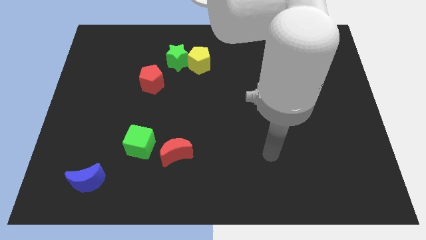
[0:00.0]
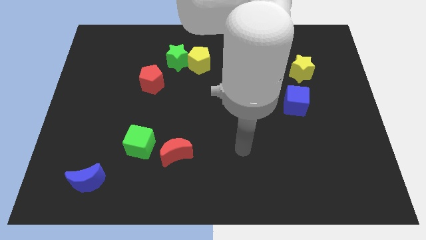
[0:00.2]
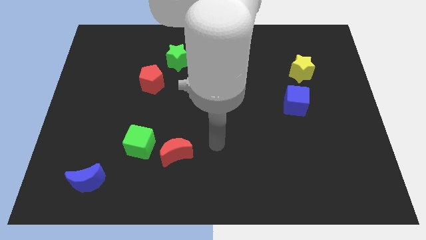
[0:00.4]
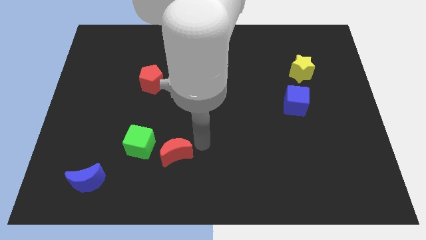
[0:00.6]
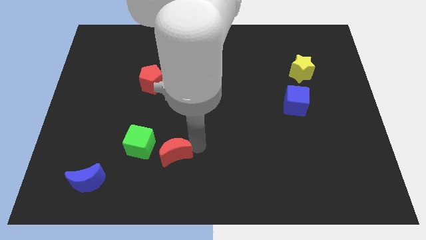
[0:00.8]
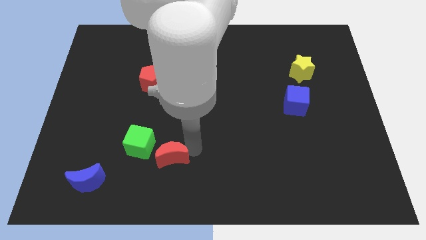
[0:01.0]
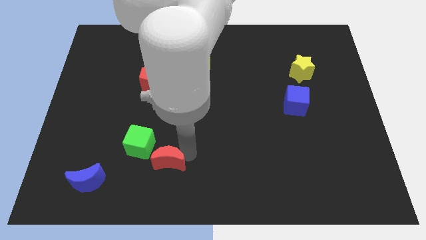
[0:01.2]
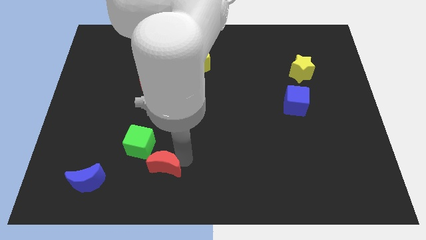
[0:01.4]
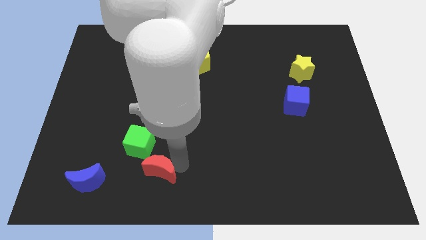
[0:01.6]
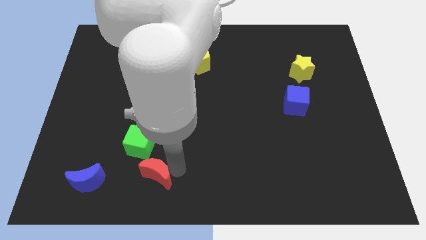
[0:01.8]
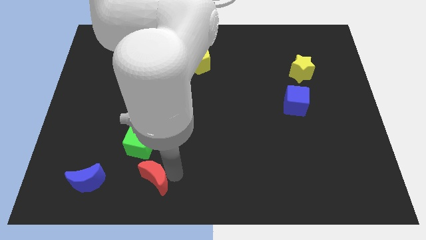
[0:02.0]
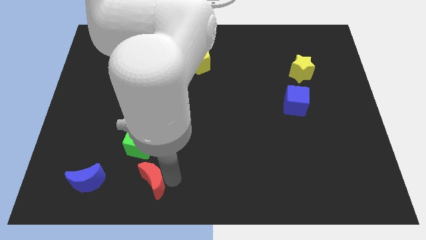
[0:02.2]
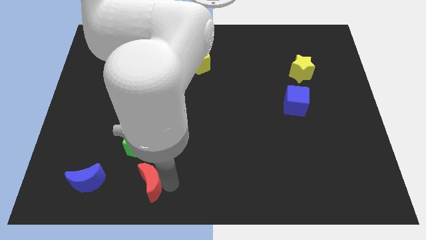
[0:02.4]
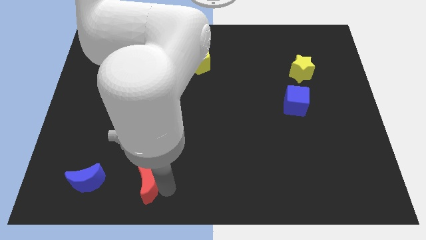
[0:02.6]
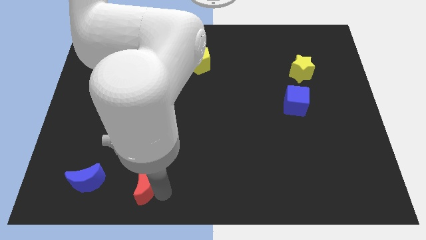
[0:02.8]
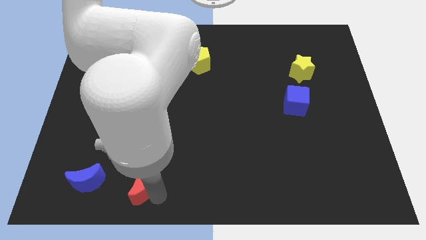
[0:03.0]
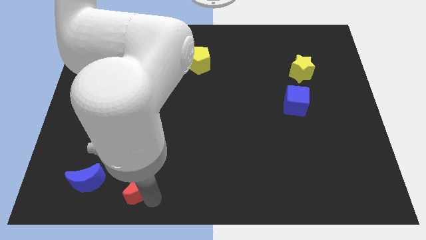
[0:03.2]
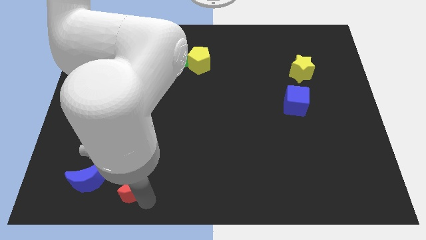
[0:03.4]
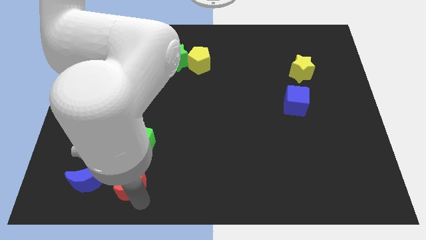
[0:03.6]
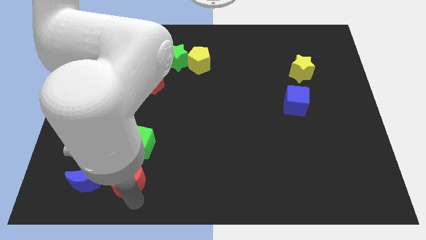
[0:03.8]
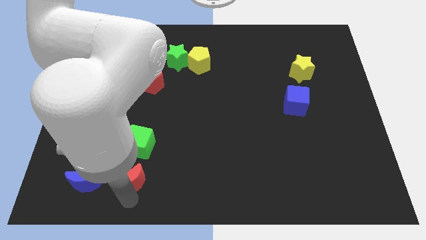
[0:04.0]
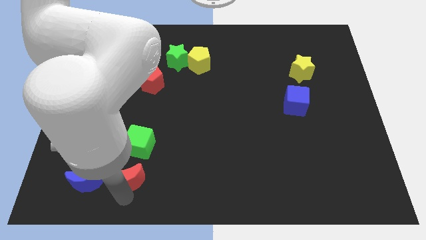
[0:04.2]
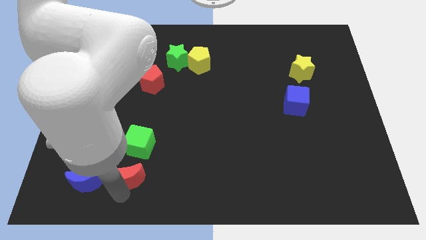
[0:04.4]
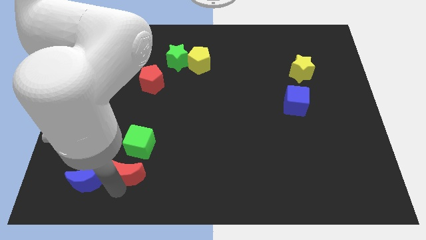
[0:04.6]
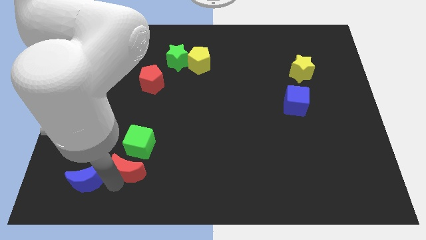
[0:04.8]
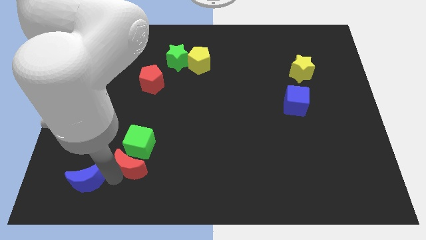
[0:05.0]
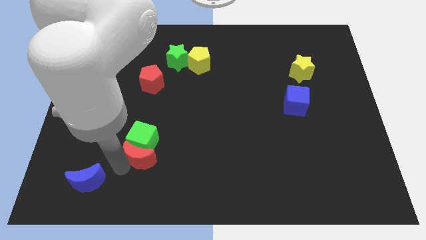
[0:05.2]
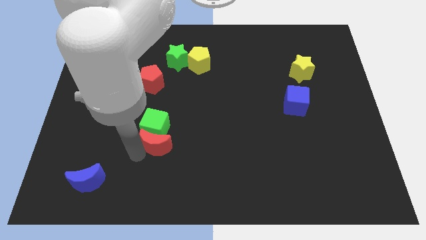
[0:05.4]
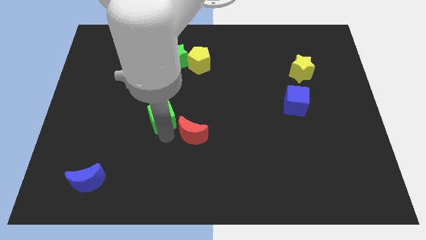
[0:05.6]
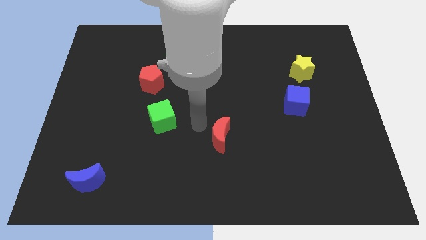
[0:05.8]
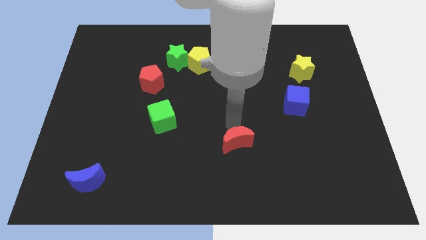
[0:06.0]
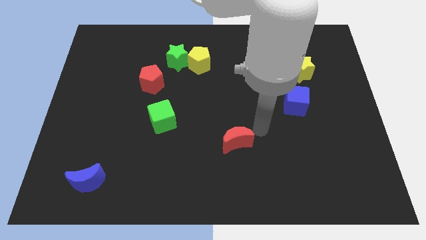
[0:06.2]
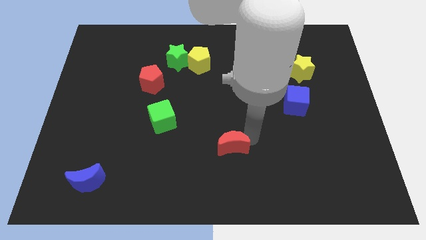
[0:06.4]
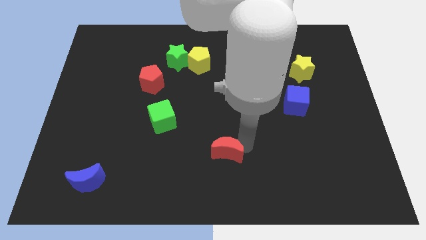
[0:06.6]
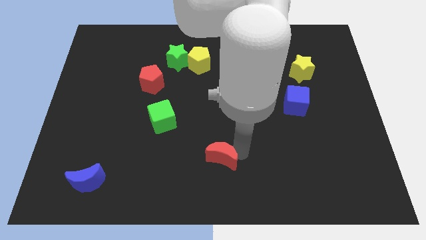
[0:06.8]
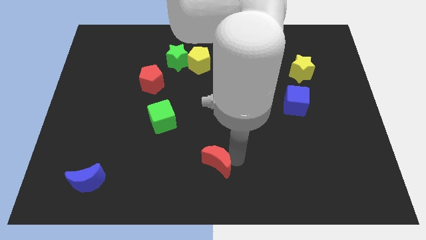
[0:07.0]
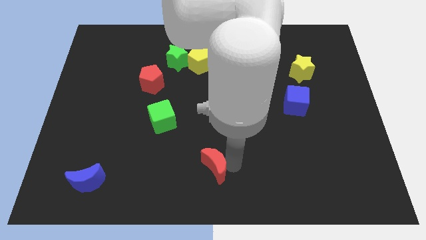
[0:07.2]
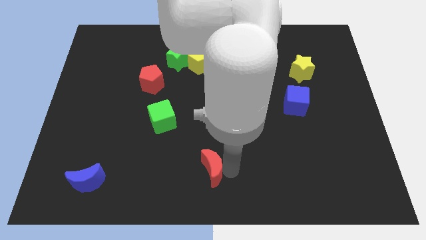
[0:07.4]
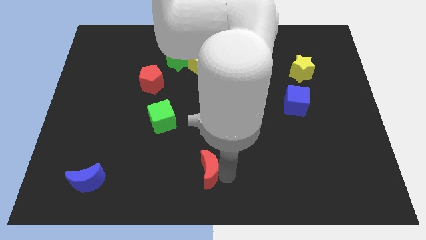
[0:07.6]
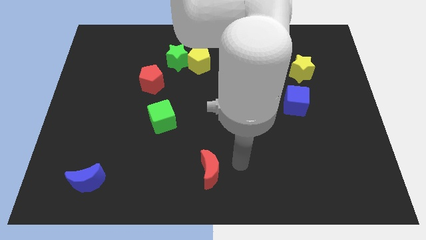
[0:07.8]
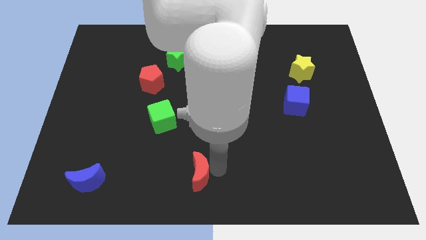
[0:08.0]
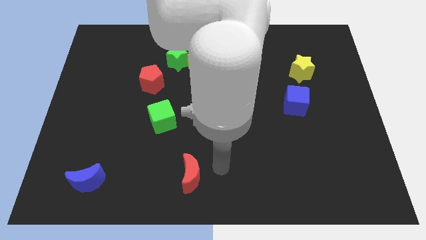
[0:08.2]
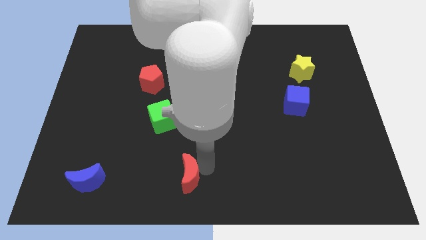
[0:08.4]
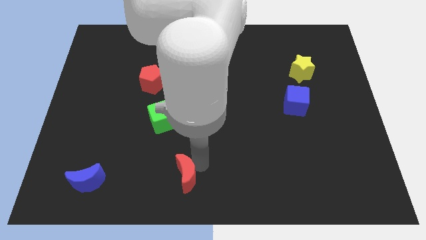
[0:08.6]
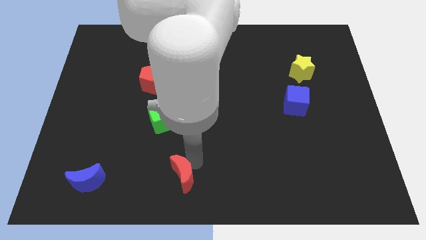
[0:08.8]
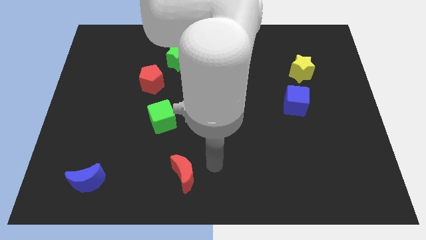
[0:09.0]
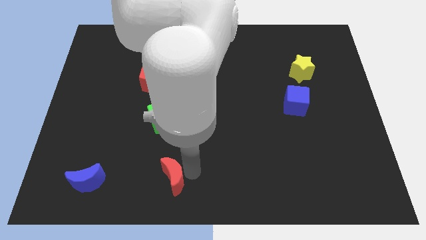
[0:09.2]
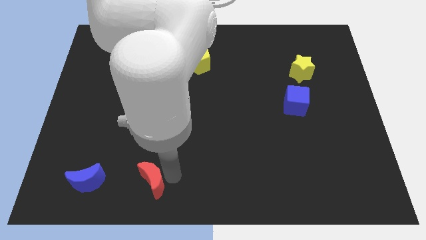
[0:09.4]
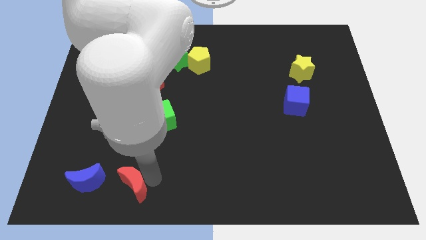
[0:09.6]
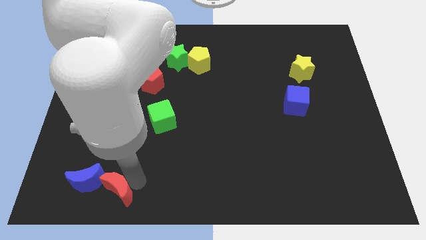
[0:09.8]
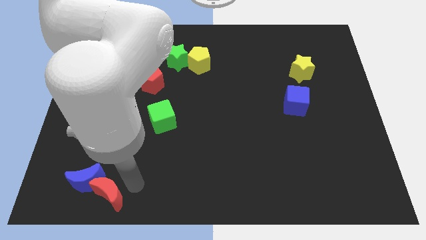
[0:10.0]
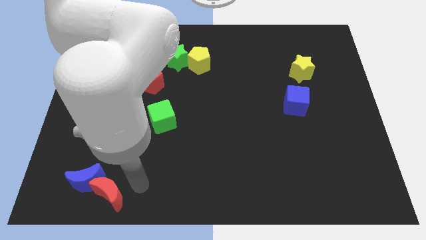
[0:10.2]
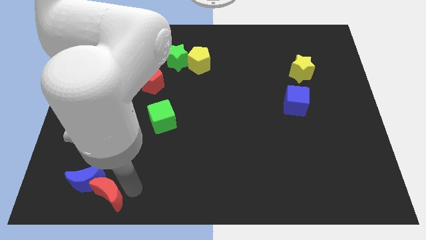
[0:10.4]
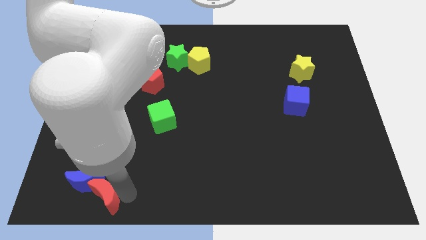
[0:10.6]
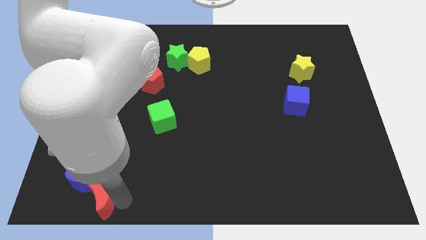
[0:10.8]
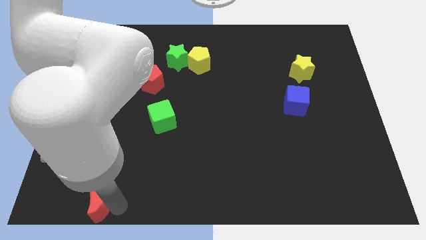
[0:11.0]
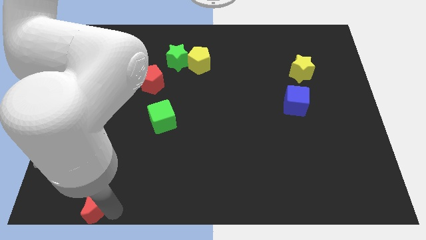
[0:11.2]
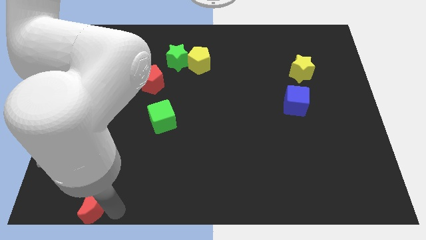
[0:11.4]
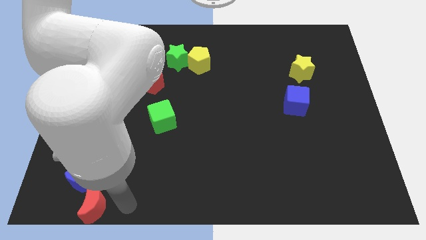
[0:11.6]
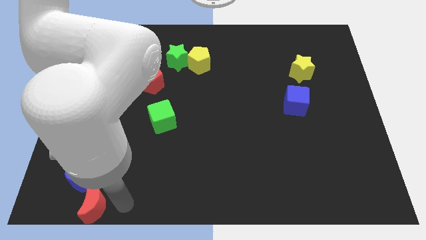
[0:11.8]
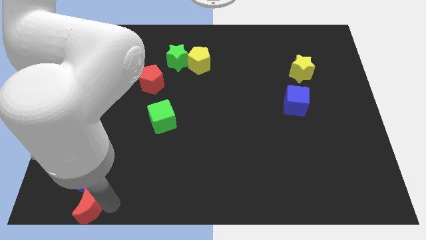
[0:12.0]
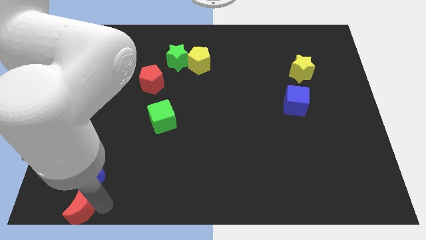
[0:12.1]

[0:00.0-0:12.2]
put the red moon to the bottom left

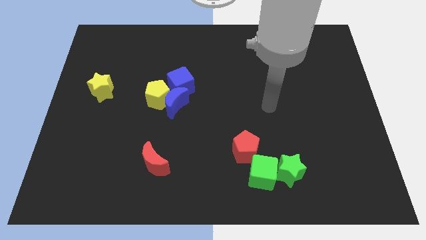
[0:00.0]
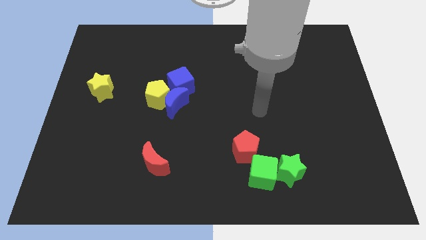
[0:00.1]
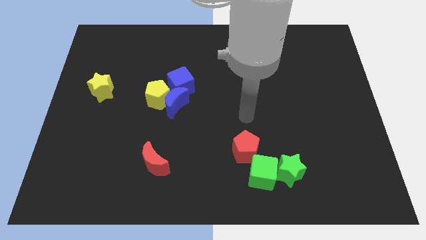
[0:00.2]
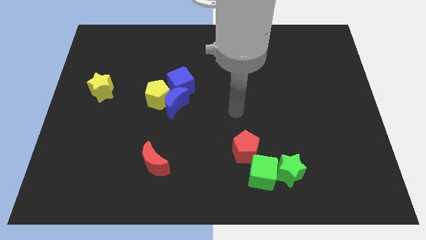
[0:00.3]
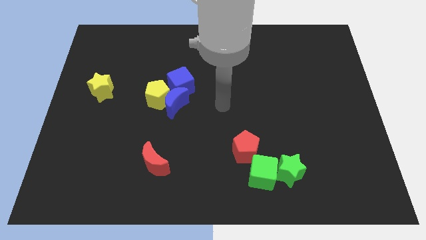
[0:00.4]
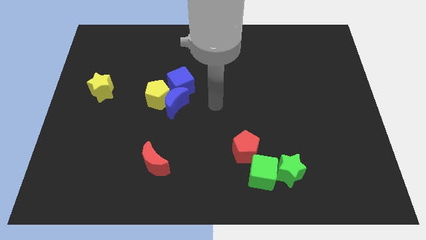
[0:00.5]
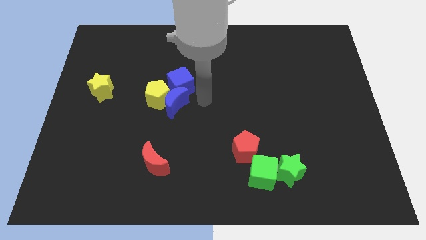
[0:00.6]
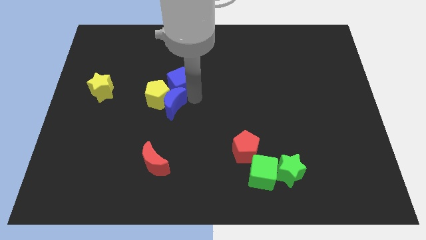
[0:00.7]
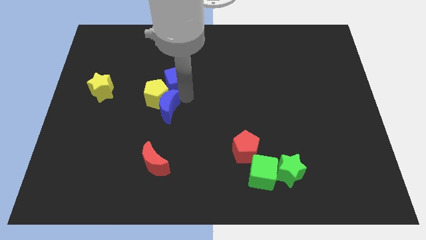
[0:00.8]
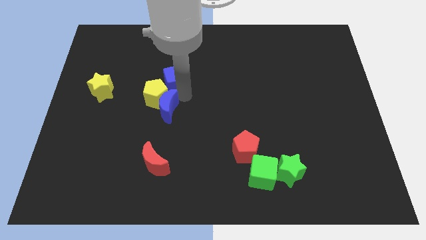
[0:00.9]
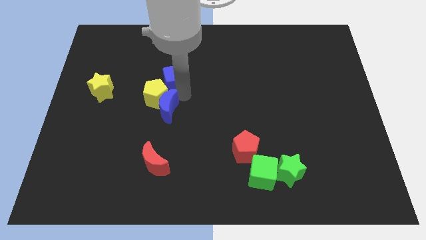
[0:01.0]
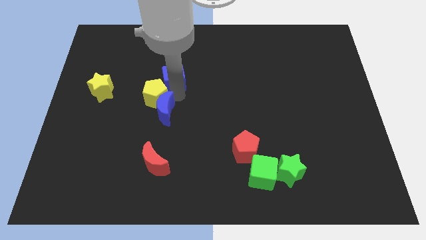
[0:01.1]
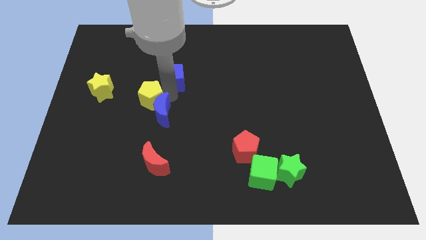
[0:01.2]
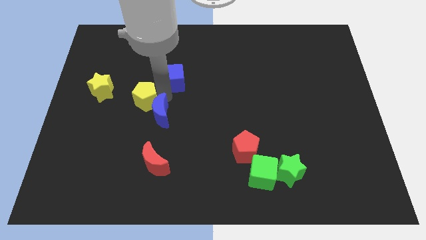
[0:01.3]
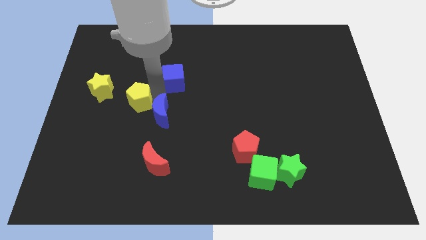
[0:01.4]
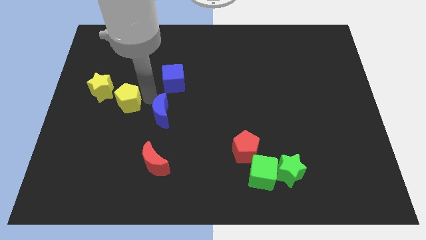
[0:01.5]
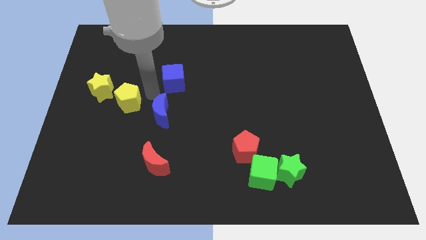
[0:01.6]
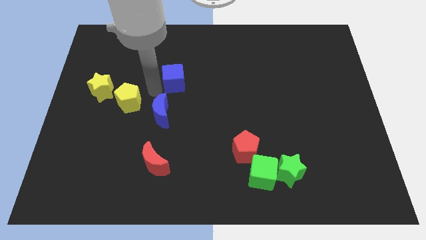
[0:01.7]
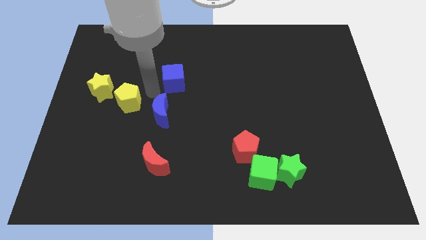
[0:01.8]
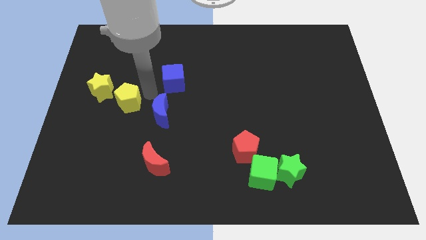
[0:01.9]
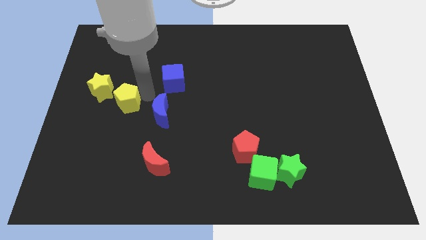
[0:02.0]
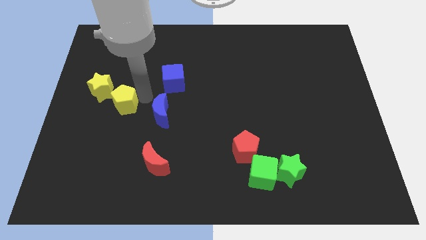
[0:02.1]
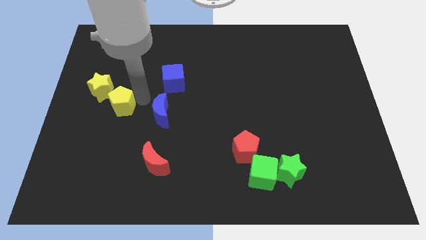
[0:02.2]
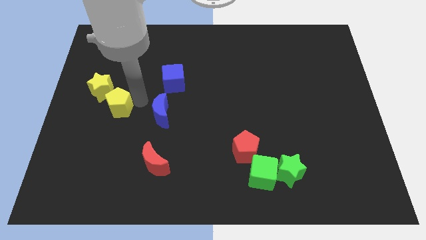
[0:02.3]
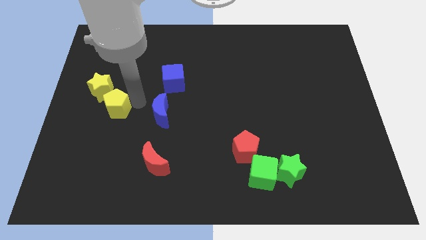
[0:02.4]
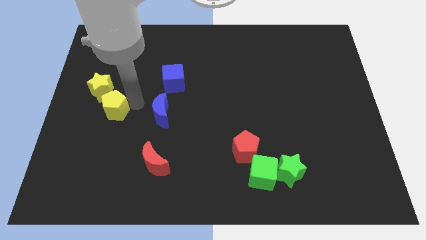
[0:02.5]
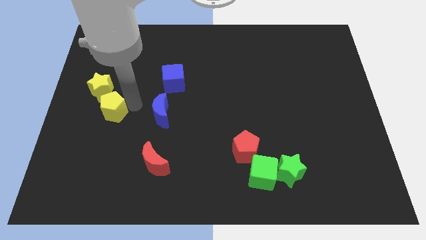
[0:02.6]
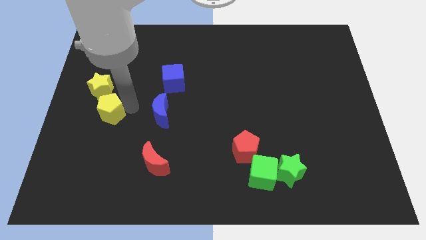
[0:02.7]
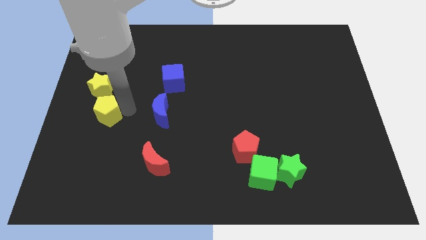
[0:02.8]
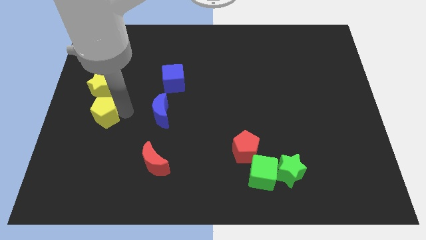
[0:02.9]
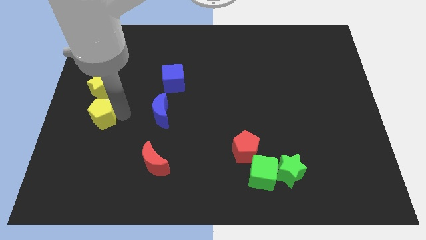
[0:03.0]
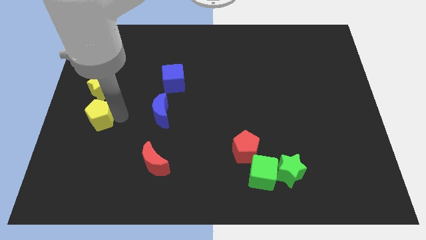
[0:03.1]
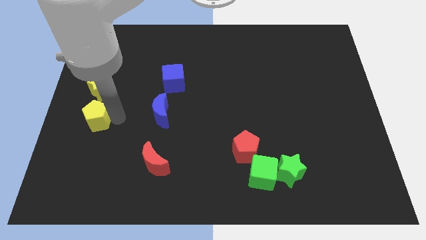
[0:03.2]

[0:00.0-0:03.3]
push the yellow pentagon to the left side
